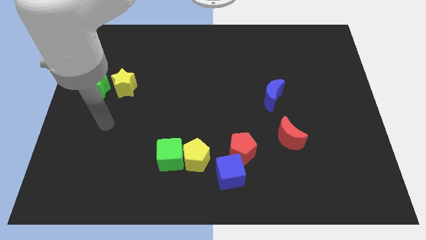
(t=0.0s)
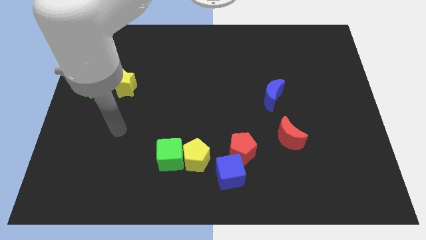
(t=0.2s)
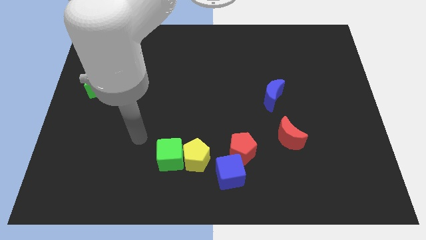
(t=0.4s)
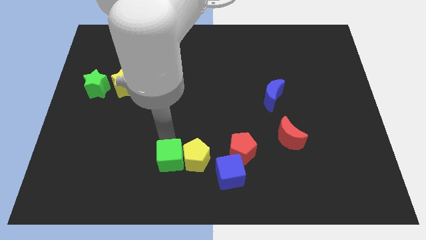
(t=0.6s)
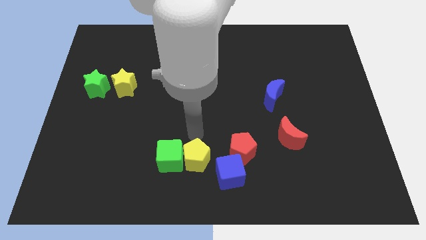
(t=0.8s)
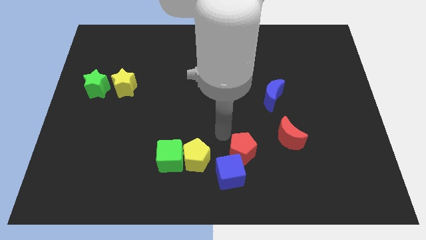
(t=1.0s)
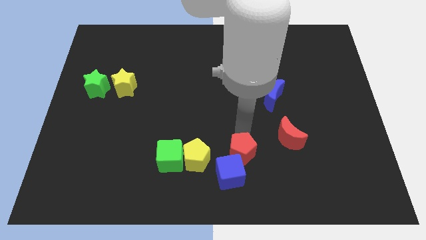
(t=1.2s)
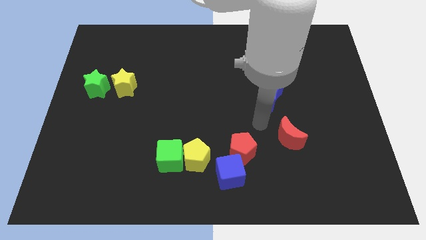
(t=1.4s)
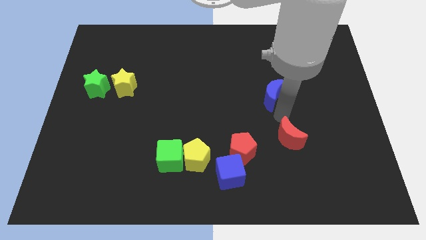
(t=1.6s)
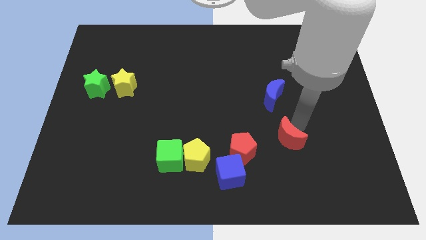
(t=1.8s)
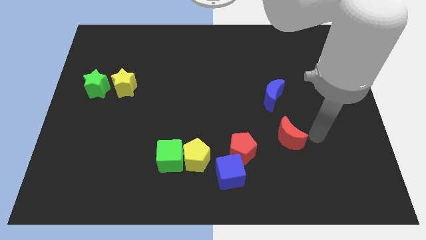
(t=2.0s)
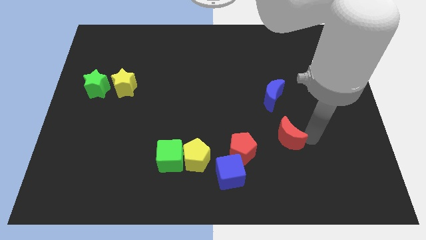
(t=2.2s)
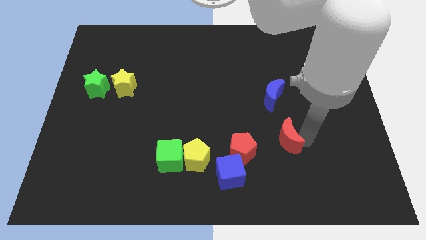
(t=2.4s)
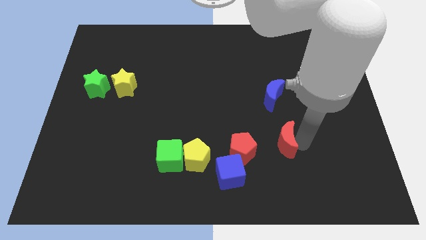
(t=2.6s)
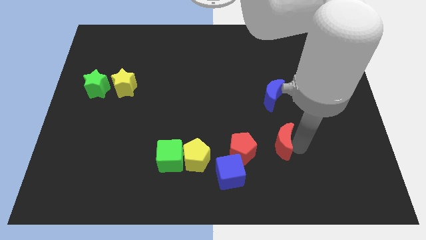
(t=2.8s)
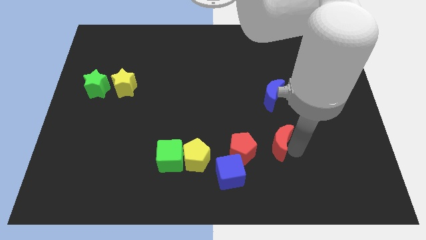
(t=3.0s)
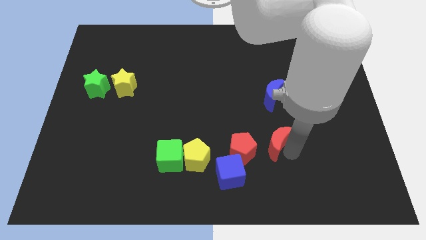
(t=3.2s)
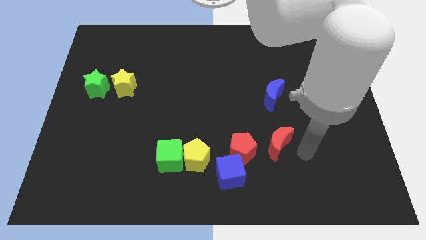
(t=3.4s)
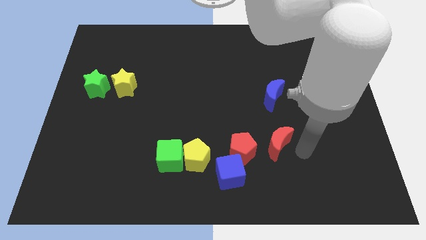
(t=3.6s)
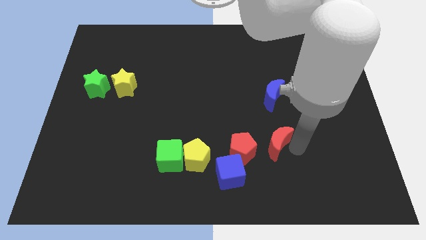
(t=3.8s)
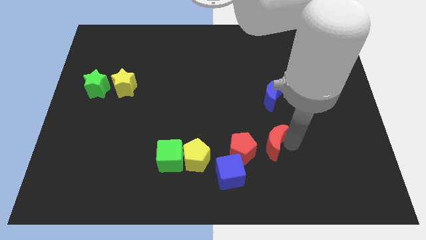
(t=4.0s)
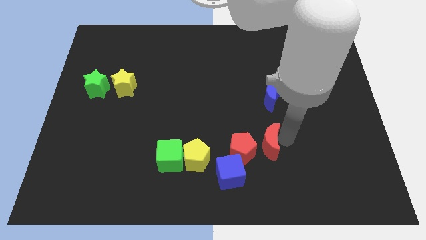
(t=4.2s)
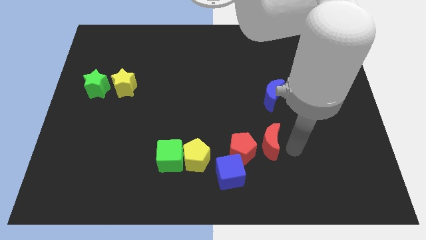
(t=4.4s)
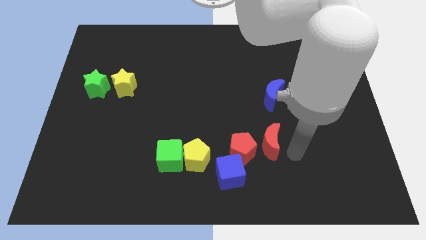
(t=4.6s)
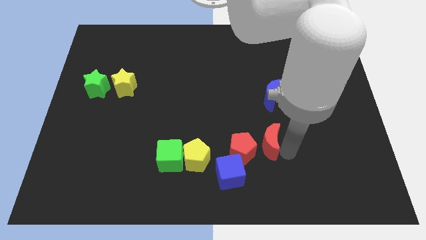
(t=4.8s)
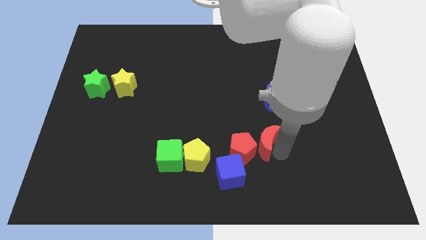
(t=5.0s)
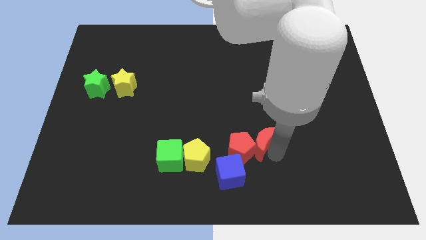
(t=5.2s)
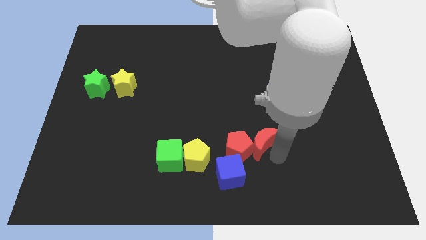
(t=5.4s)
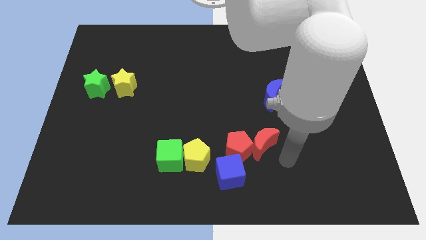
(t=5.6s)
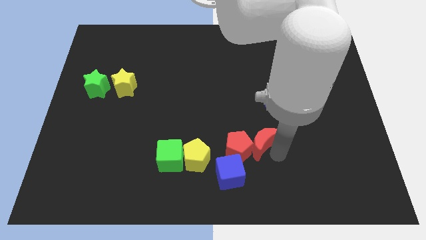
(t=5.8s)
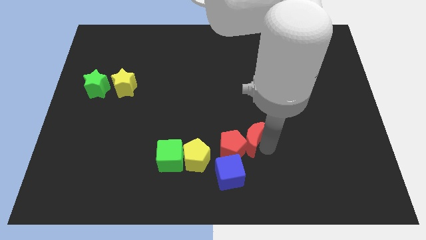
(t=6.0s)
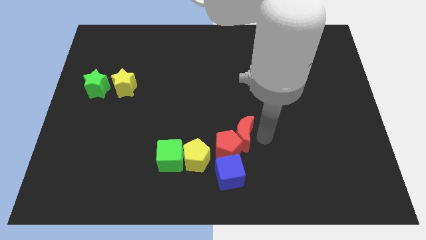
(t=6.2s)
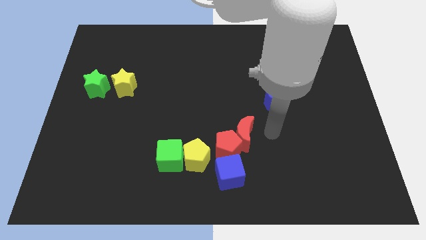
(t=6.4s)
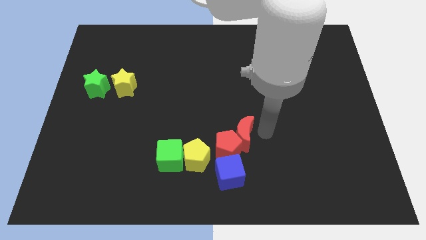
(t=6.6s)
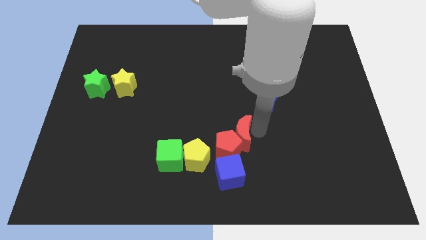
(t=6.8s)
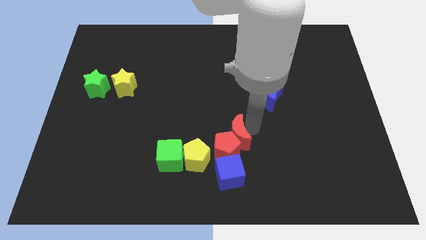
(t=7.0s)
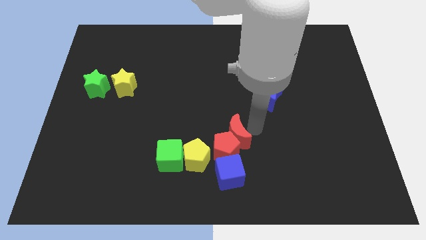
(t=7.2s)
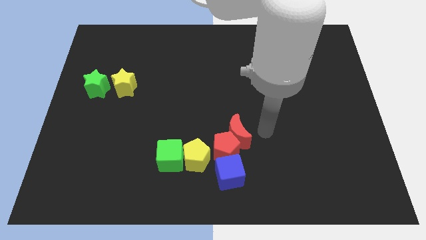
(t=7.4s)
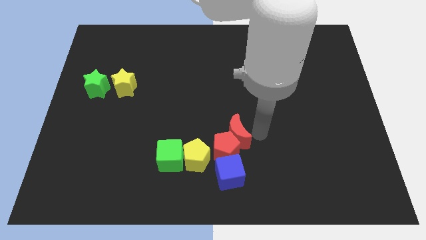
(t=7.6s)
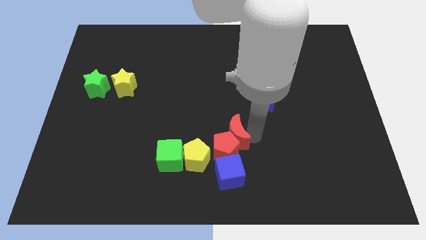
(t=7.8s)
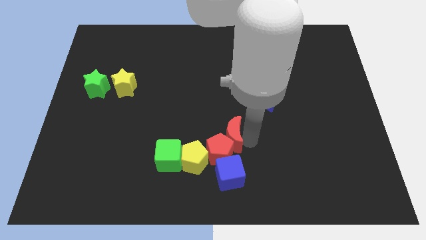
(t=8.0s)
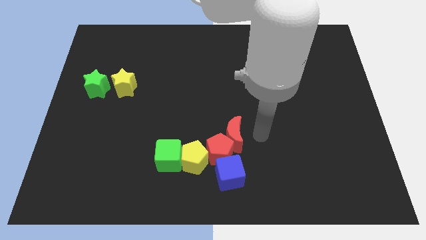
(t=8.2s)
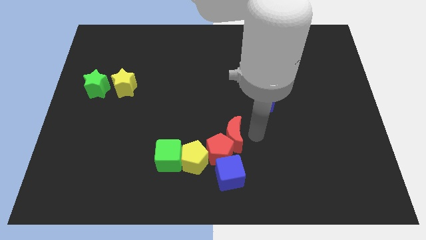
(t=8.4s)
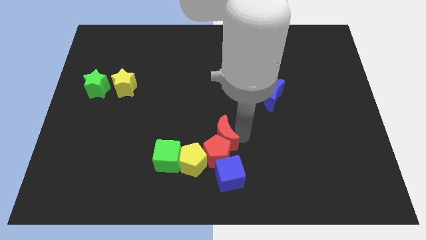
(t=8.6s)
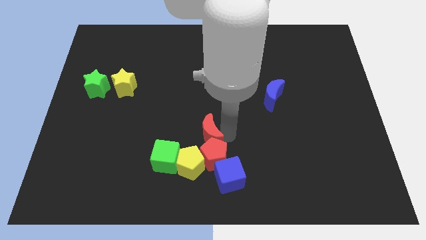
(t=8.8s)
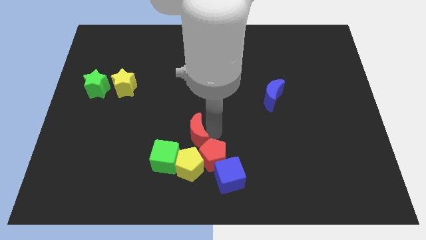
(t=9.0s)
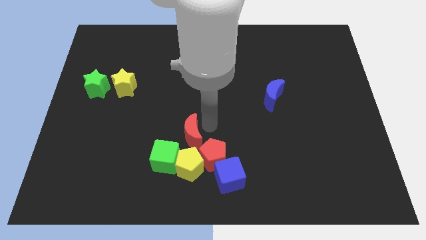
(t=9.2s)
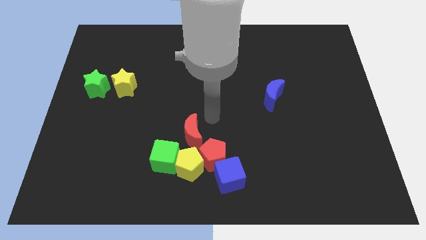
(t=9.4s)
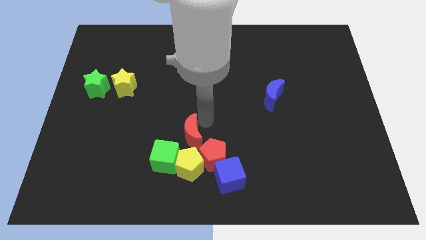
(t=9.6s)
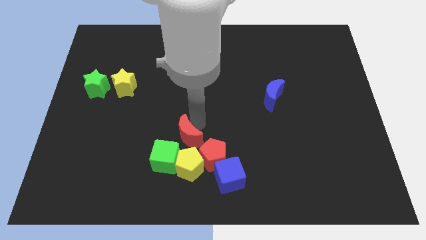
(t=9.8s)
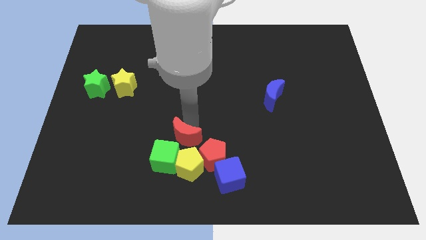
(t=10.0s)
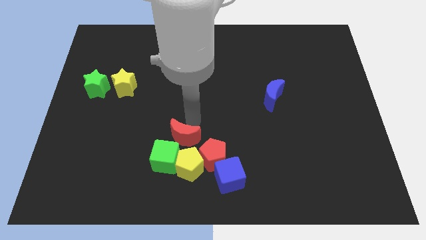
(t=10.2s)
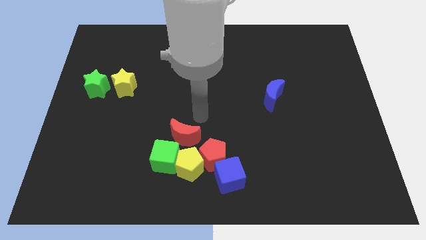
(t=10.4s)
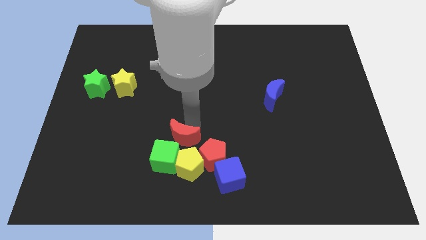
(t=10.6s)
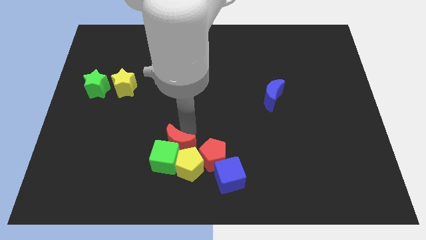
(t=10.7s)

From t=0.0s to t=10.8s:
put the red moon close to the green cube

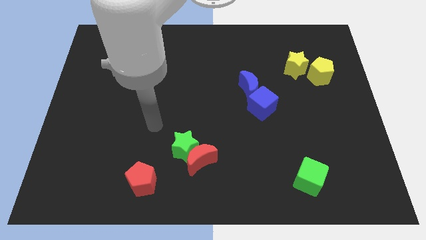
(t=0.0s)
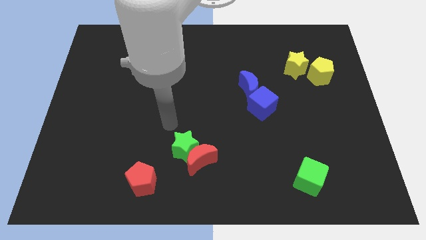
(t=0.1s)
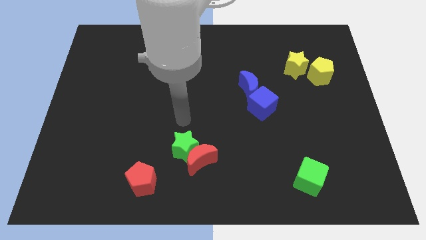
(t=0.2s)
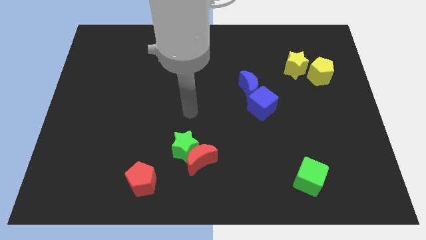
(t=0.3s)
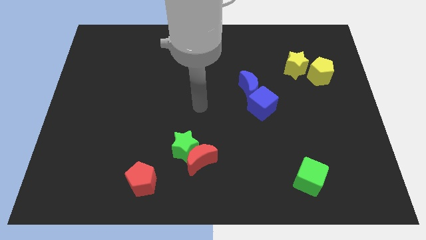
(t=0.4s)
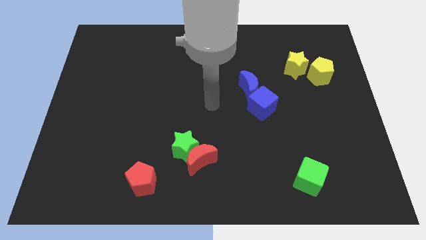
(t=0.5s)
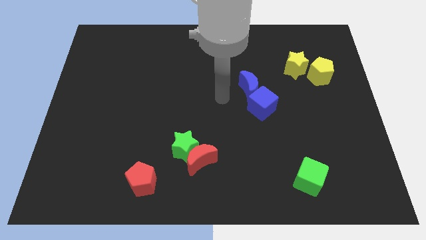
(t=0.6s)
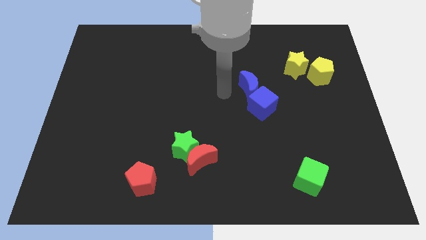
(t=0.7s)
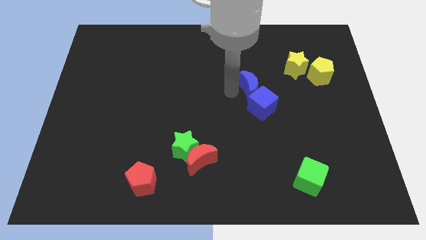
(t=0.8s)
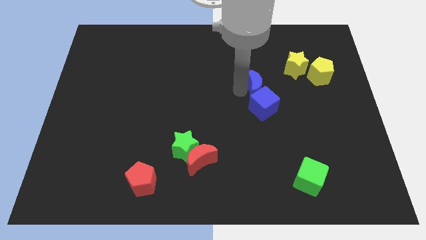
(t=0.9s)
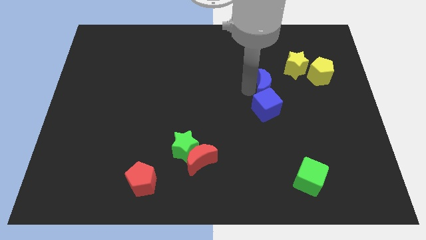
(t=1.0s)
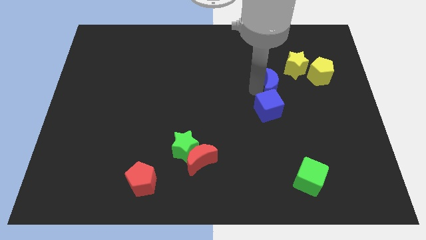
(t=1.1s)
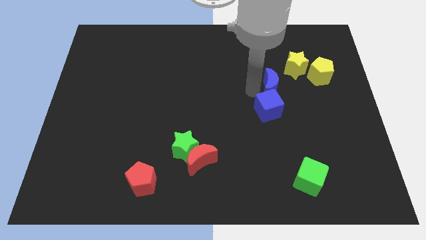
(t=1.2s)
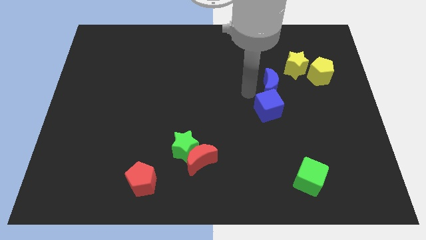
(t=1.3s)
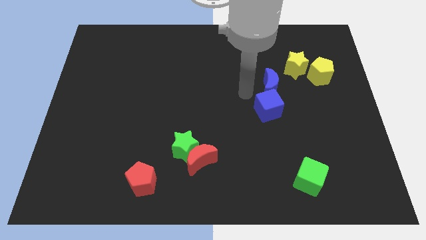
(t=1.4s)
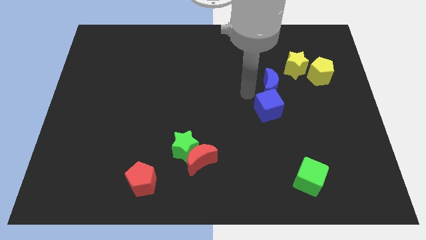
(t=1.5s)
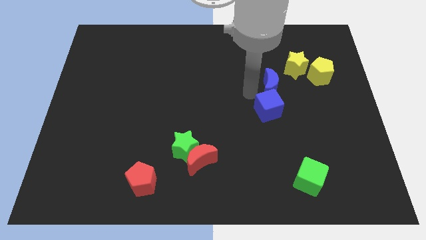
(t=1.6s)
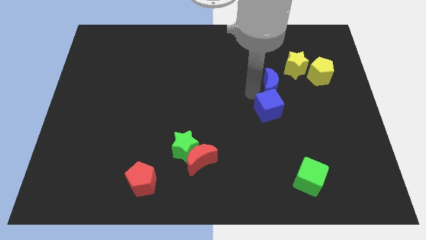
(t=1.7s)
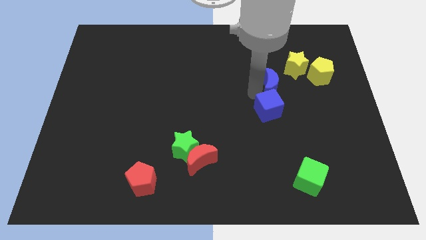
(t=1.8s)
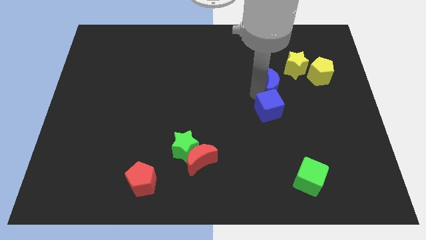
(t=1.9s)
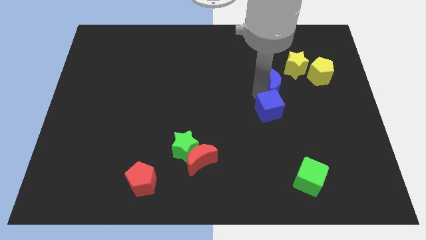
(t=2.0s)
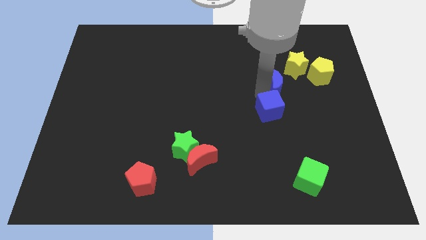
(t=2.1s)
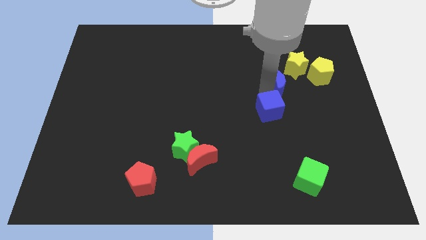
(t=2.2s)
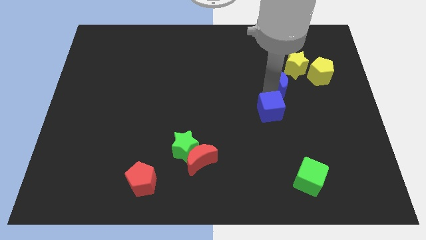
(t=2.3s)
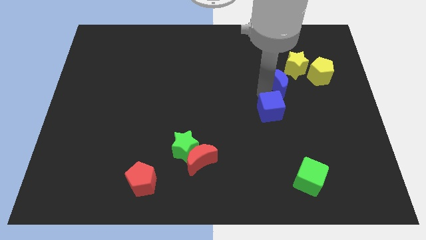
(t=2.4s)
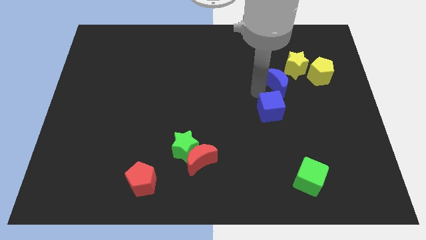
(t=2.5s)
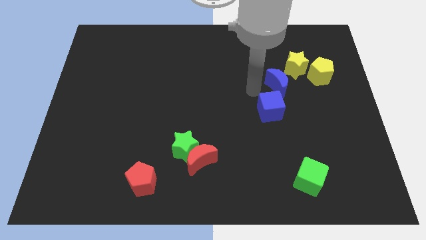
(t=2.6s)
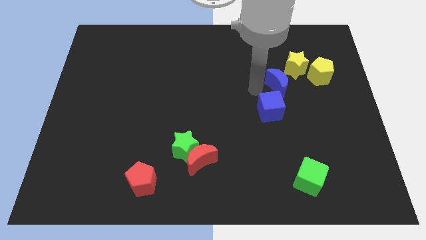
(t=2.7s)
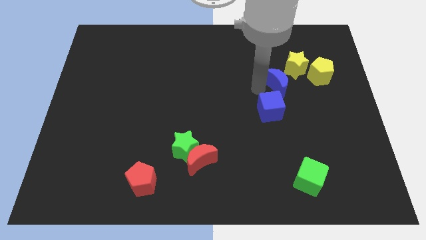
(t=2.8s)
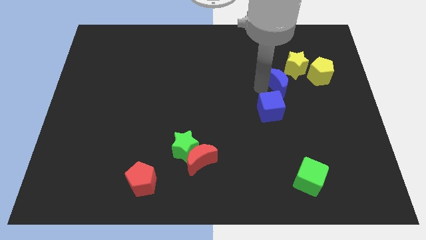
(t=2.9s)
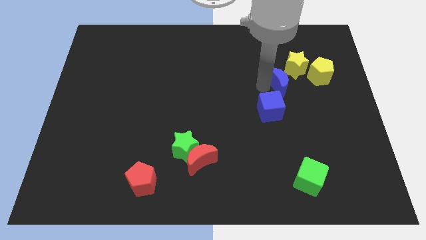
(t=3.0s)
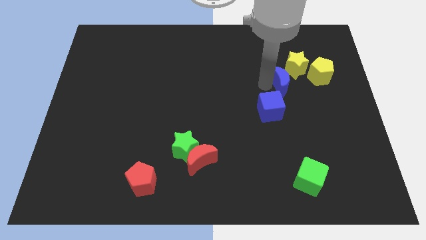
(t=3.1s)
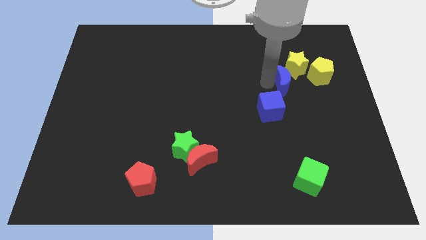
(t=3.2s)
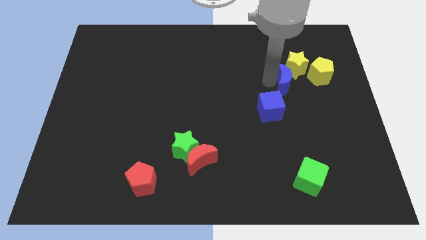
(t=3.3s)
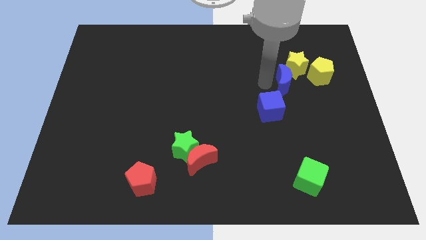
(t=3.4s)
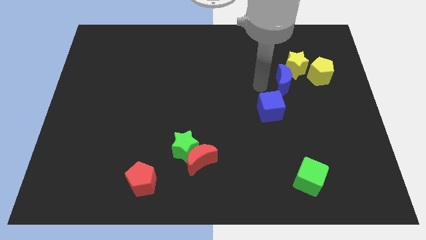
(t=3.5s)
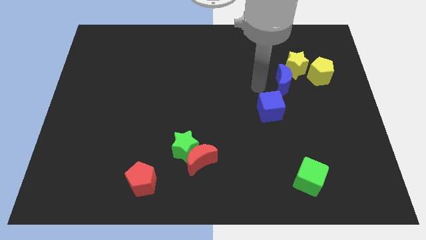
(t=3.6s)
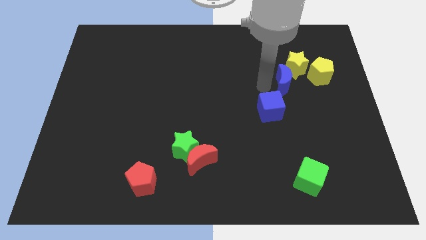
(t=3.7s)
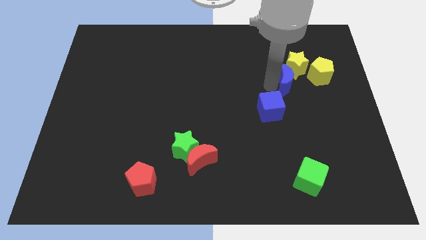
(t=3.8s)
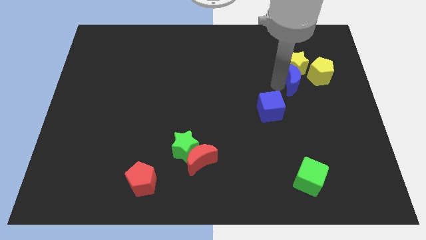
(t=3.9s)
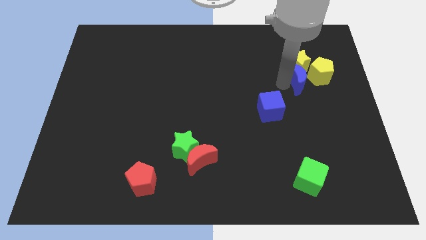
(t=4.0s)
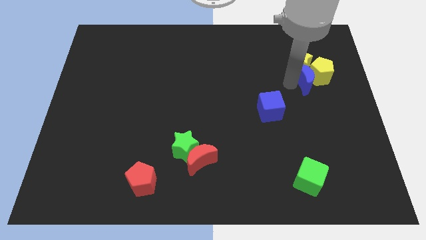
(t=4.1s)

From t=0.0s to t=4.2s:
move the blue moon towards the yellow pentagon
